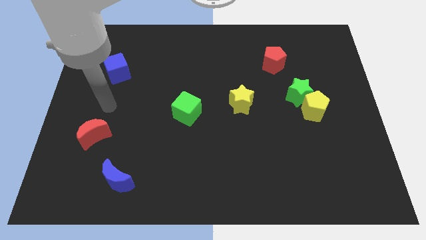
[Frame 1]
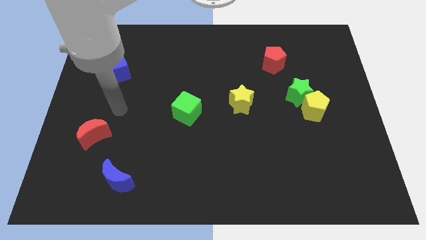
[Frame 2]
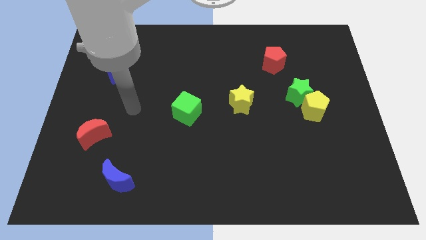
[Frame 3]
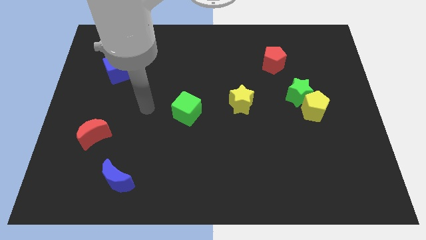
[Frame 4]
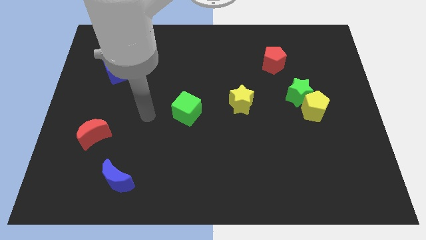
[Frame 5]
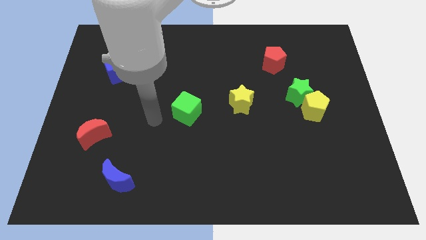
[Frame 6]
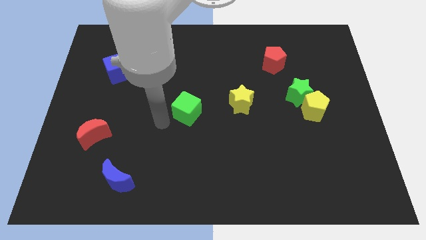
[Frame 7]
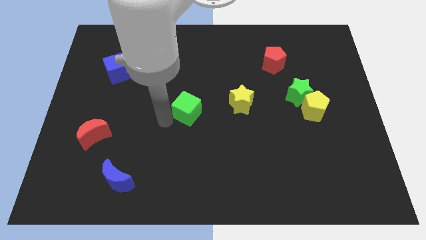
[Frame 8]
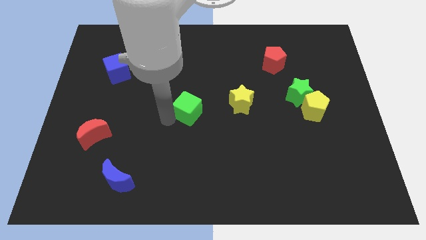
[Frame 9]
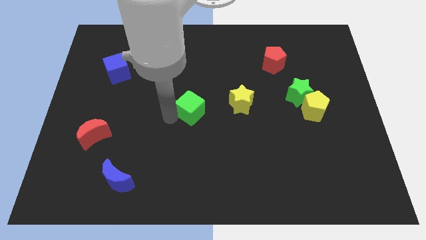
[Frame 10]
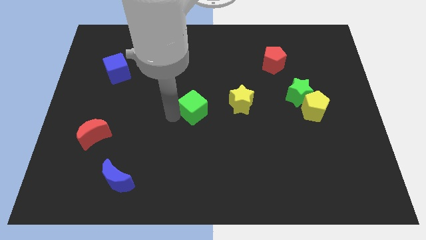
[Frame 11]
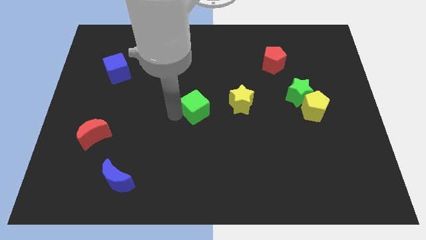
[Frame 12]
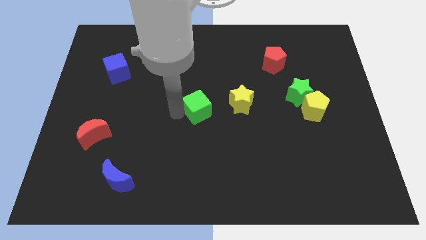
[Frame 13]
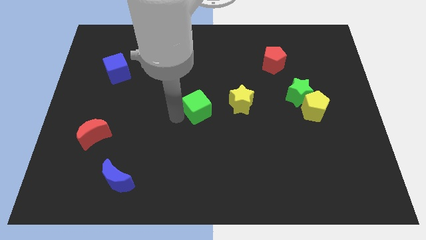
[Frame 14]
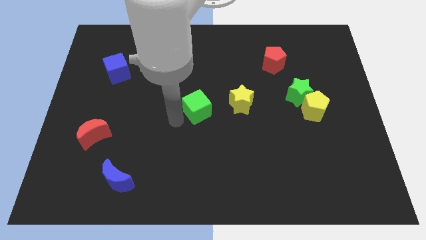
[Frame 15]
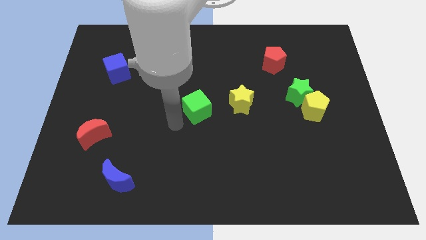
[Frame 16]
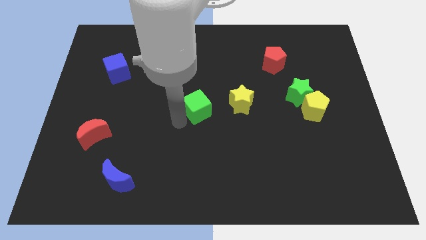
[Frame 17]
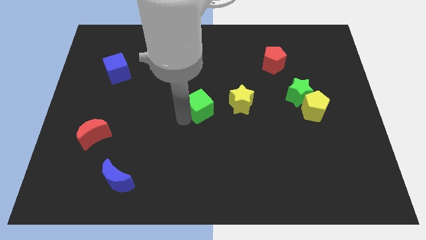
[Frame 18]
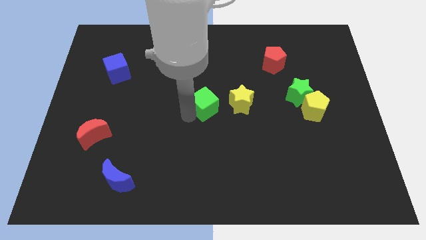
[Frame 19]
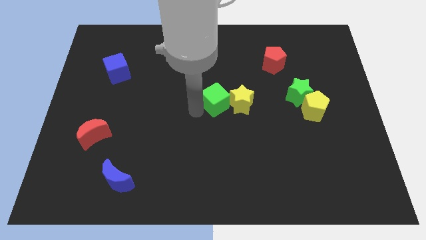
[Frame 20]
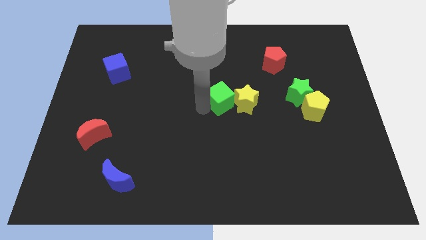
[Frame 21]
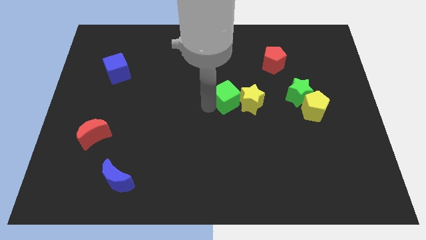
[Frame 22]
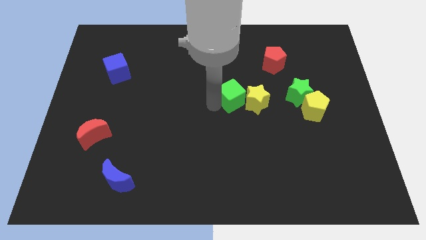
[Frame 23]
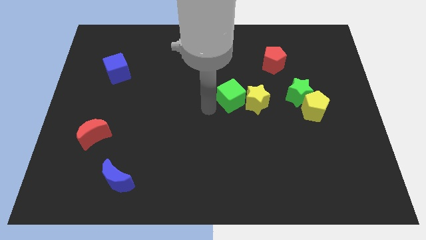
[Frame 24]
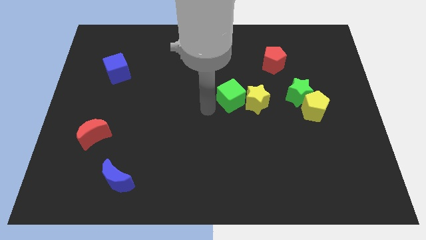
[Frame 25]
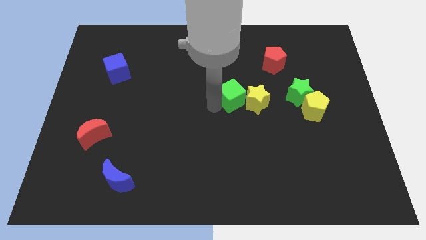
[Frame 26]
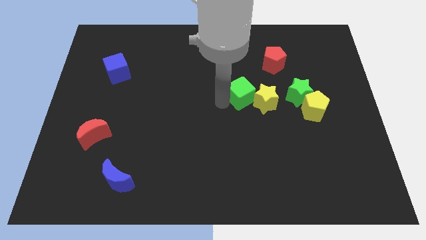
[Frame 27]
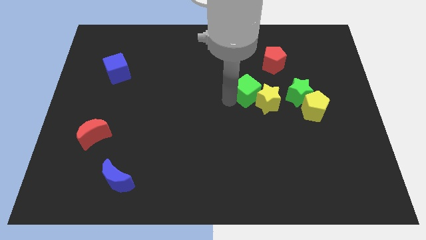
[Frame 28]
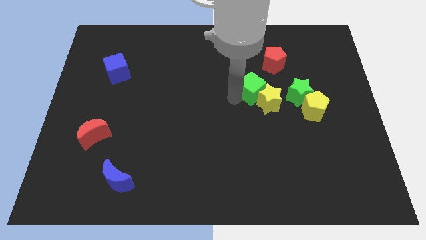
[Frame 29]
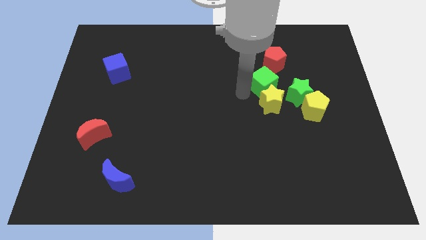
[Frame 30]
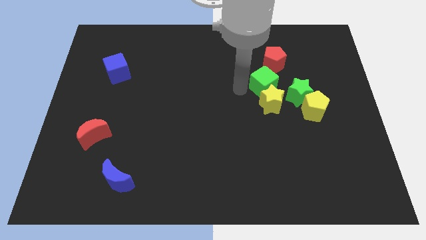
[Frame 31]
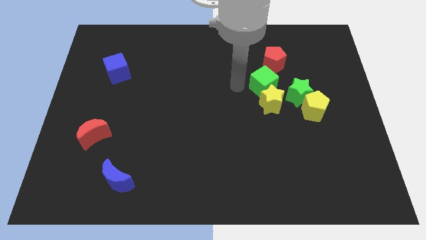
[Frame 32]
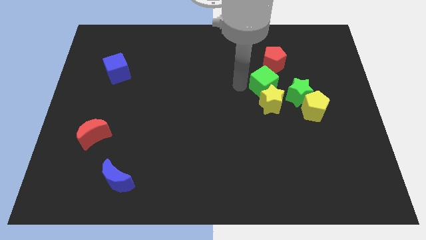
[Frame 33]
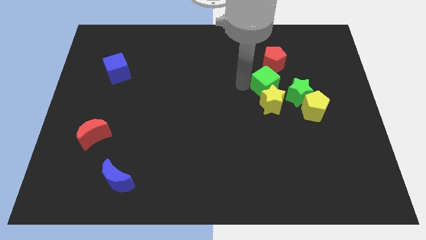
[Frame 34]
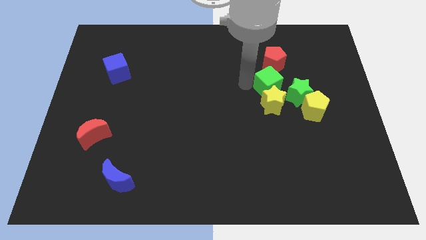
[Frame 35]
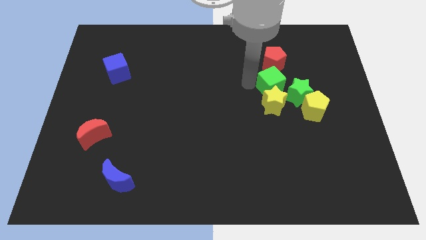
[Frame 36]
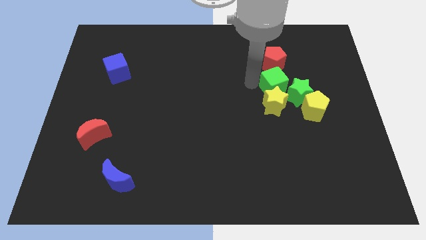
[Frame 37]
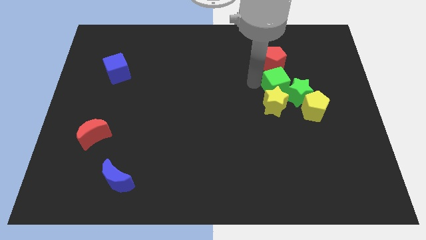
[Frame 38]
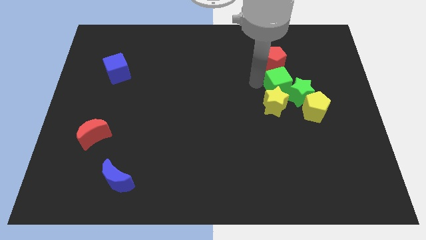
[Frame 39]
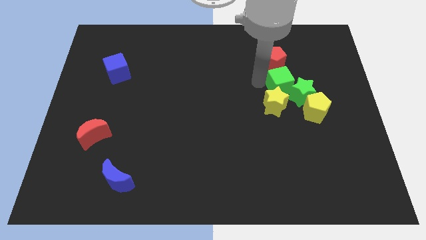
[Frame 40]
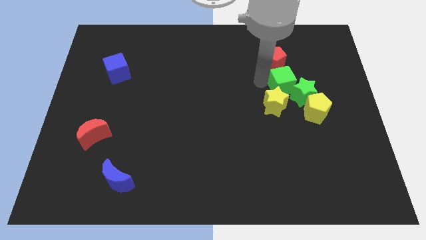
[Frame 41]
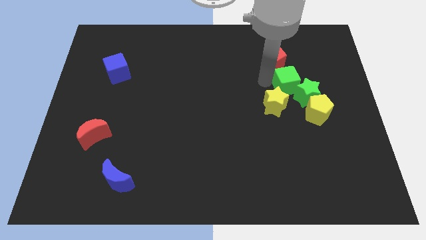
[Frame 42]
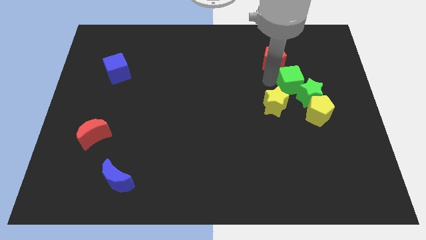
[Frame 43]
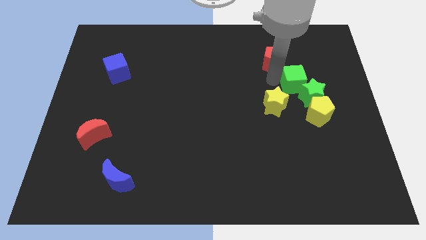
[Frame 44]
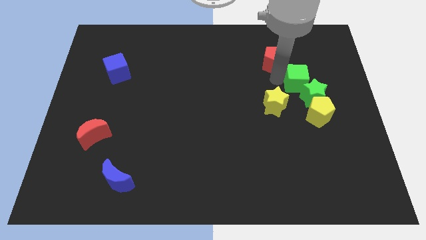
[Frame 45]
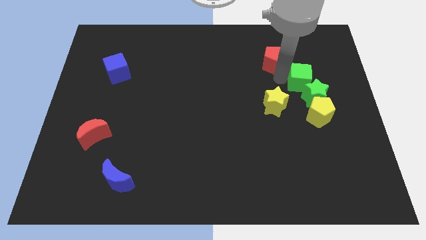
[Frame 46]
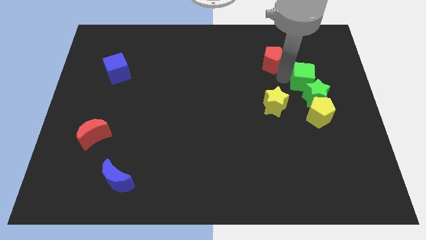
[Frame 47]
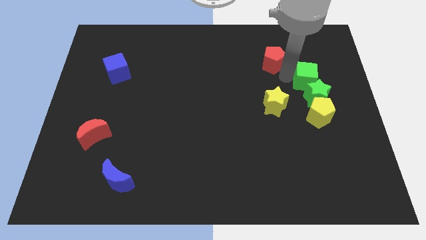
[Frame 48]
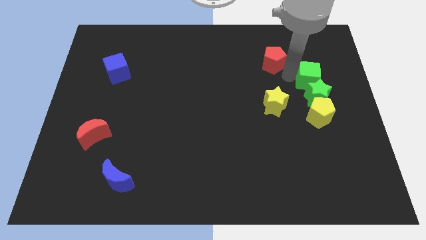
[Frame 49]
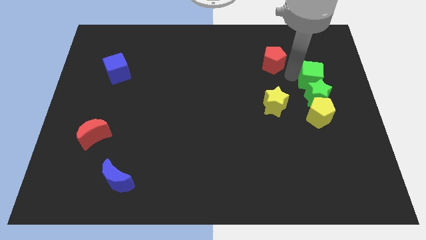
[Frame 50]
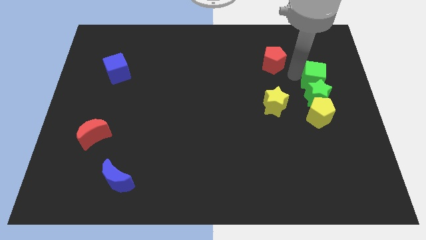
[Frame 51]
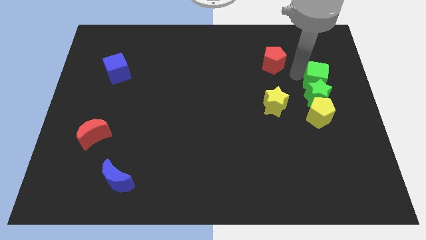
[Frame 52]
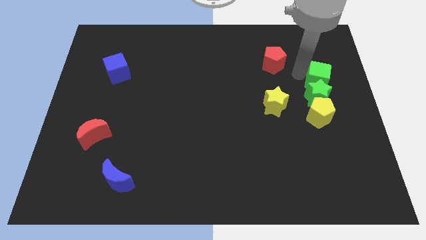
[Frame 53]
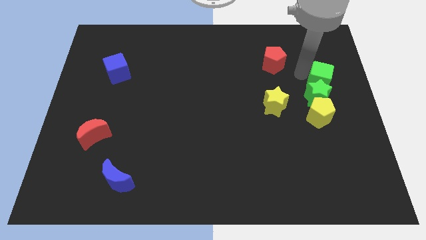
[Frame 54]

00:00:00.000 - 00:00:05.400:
put the green cube to the right side of the board

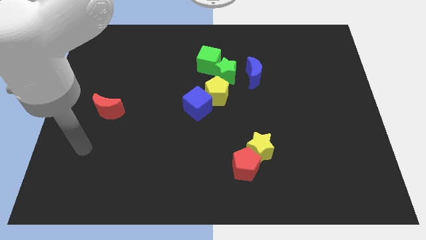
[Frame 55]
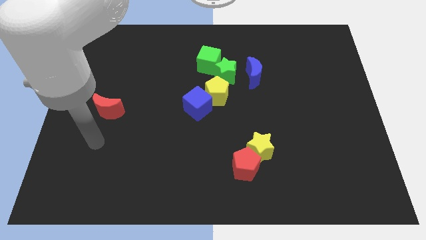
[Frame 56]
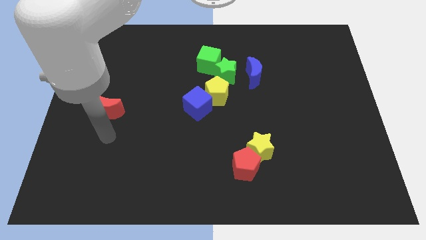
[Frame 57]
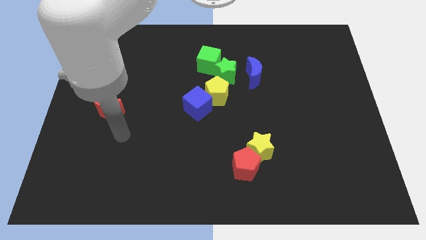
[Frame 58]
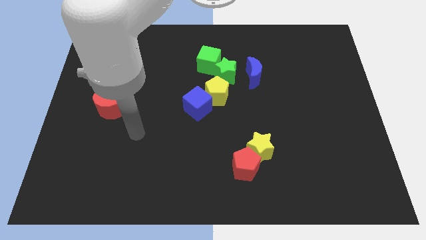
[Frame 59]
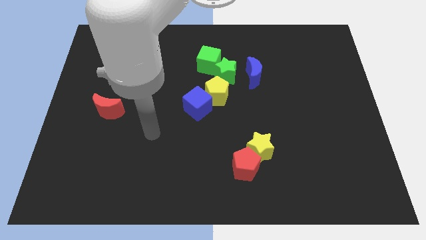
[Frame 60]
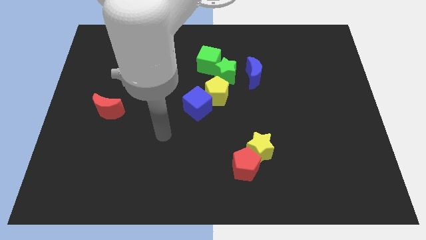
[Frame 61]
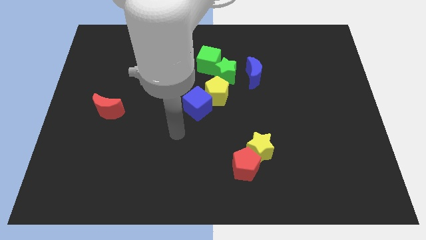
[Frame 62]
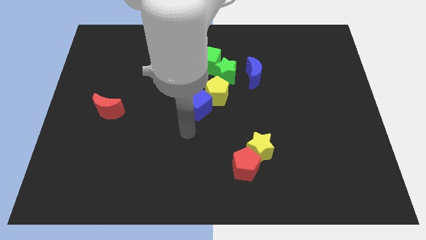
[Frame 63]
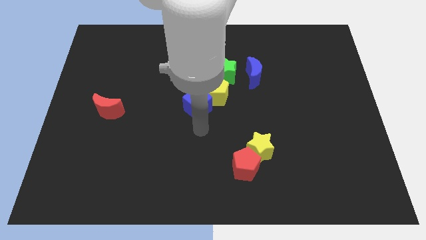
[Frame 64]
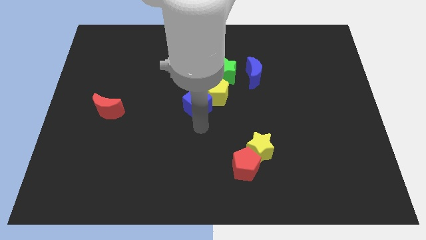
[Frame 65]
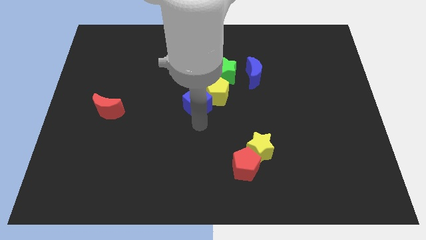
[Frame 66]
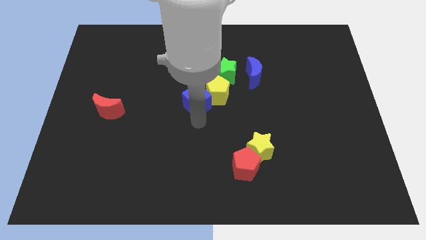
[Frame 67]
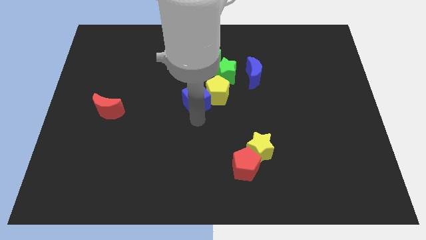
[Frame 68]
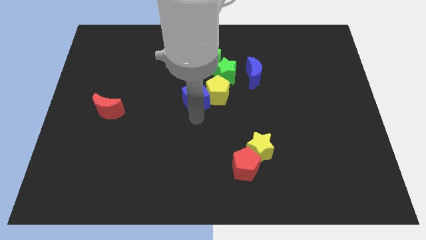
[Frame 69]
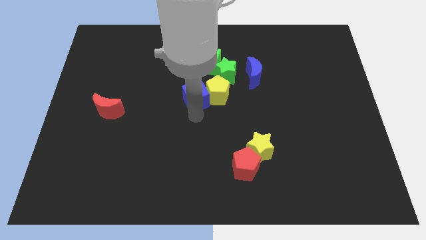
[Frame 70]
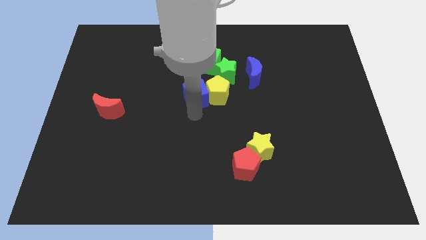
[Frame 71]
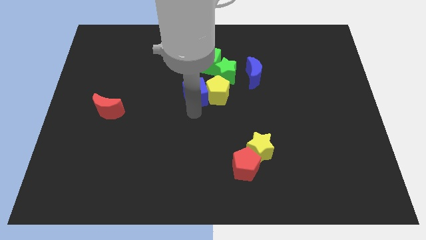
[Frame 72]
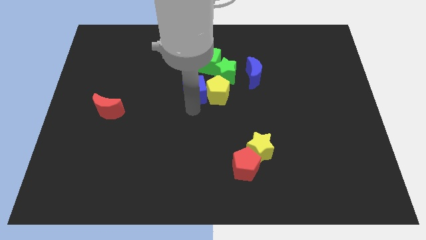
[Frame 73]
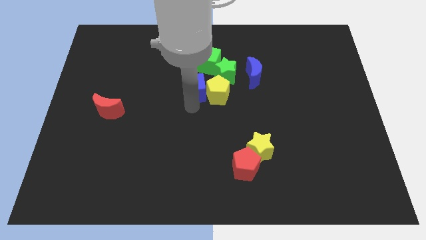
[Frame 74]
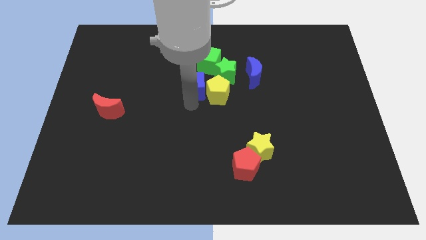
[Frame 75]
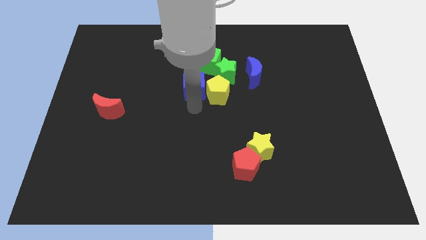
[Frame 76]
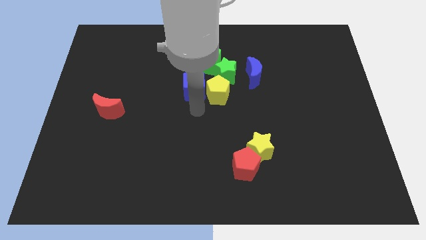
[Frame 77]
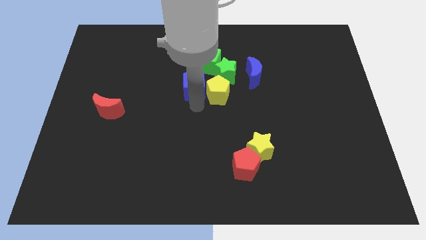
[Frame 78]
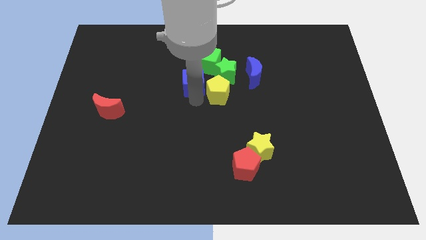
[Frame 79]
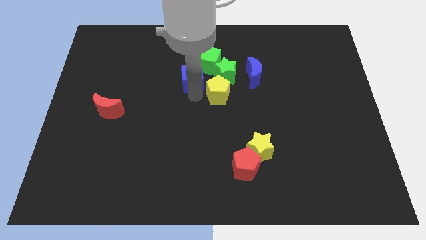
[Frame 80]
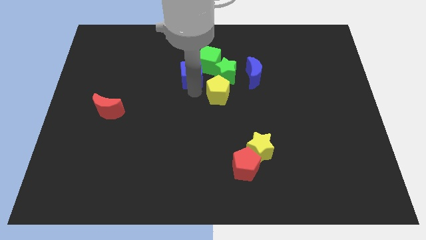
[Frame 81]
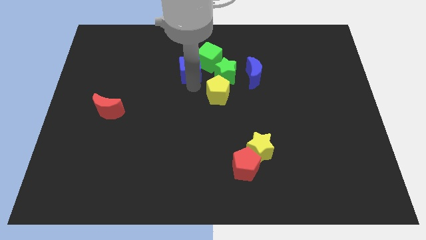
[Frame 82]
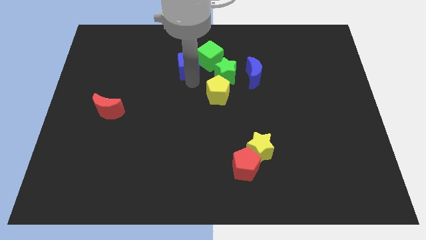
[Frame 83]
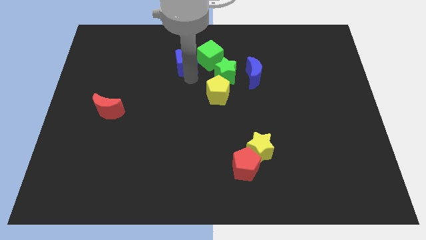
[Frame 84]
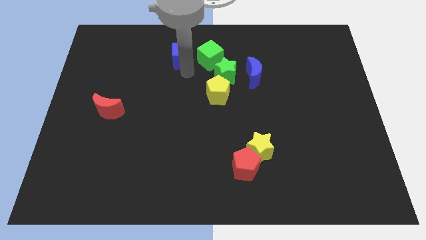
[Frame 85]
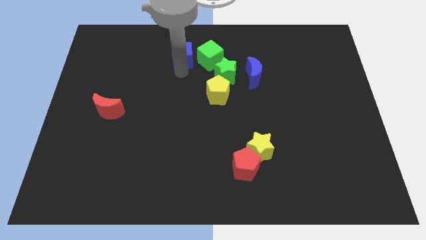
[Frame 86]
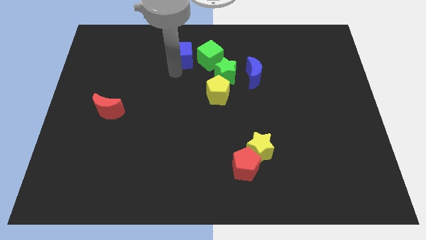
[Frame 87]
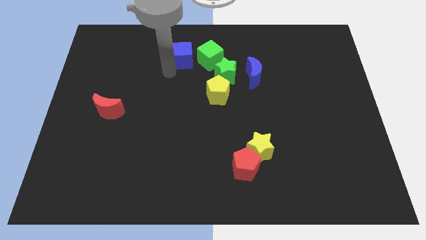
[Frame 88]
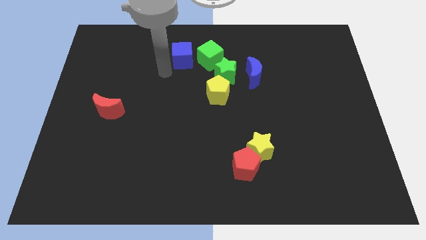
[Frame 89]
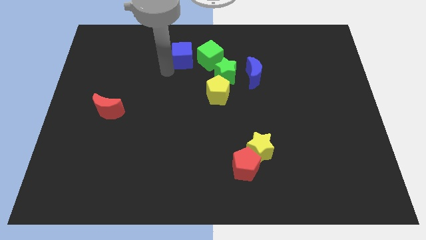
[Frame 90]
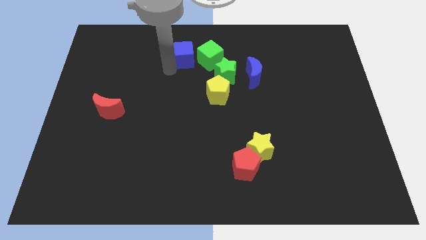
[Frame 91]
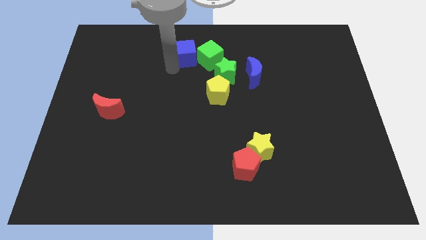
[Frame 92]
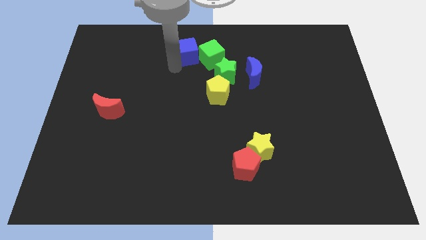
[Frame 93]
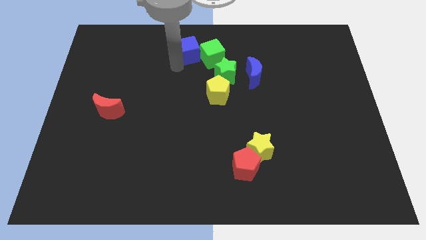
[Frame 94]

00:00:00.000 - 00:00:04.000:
move the blue cube to the top side
